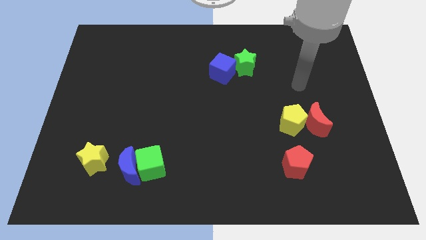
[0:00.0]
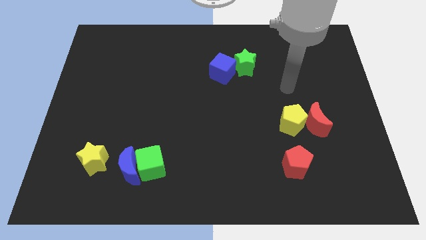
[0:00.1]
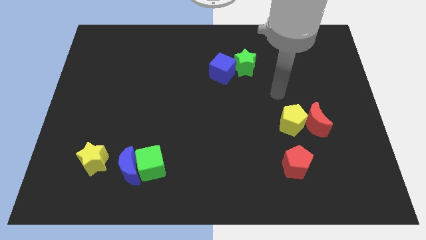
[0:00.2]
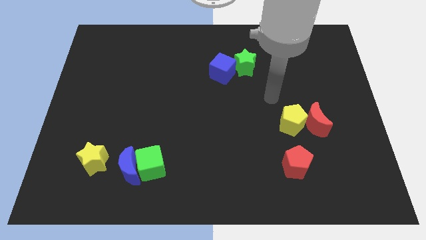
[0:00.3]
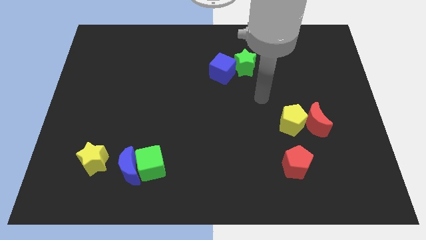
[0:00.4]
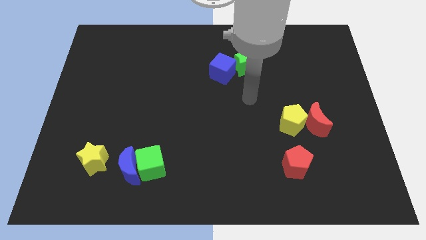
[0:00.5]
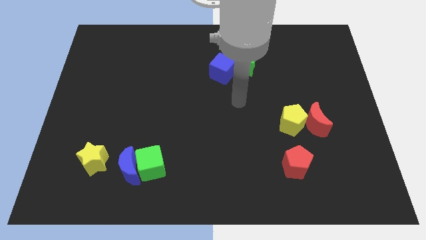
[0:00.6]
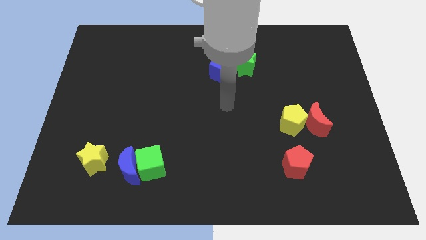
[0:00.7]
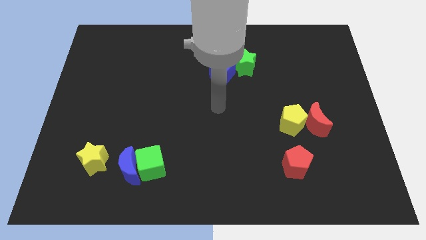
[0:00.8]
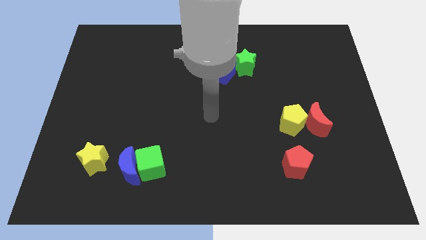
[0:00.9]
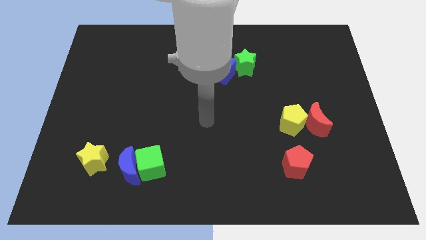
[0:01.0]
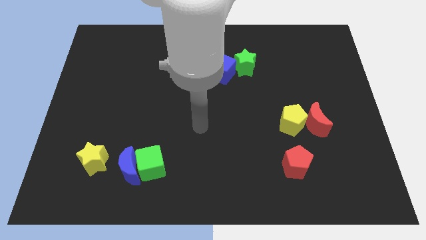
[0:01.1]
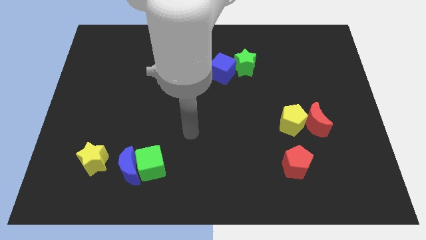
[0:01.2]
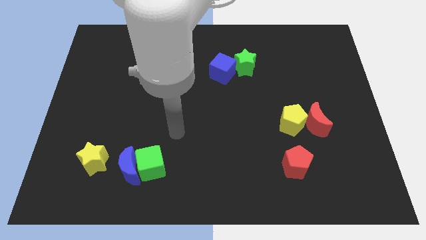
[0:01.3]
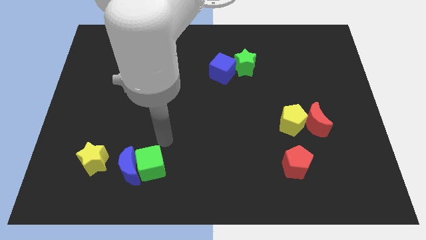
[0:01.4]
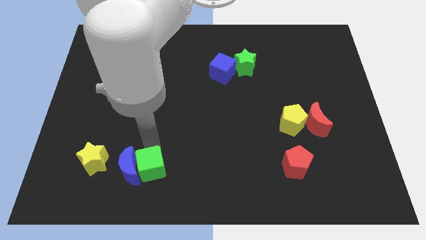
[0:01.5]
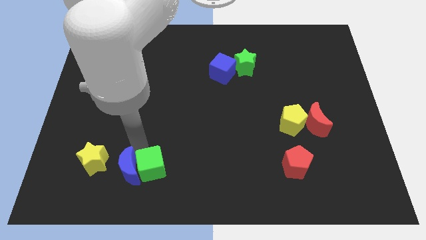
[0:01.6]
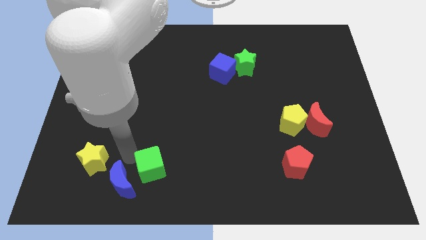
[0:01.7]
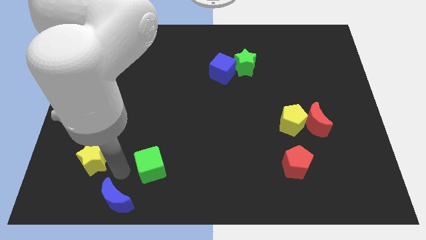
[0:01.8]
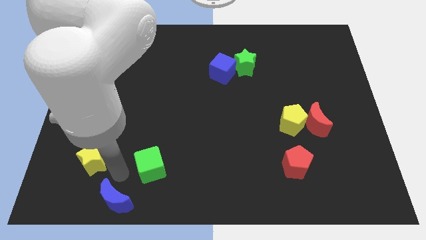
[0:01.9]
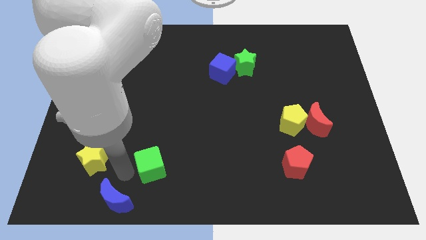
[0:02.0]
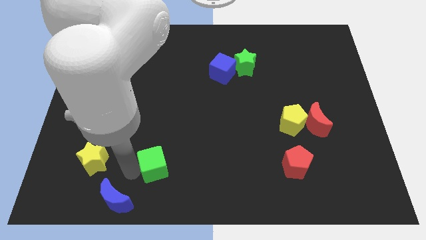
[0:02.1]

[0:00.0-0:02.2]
pull the green cube apart from the blue moon

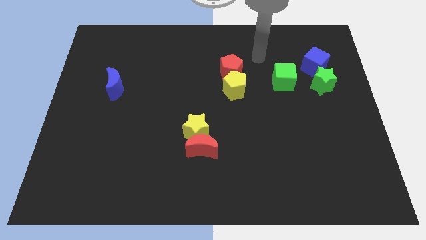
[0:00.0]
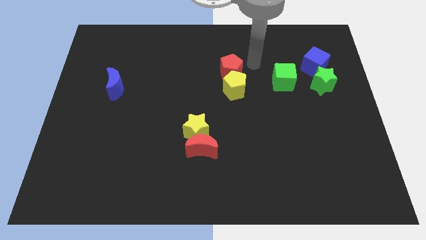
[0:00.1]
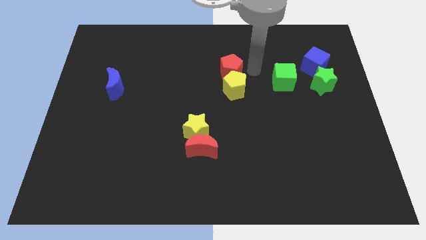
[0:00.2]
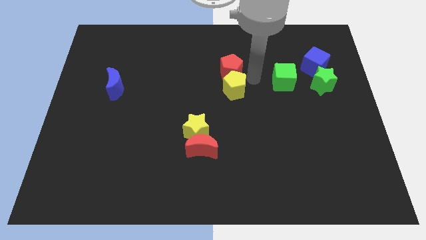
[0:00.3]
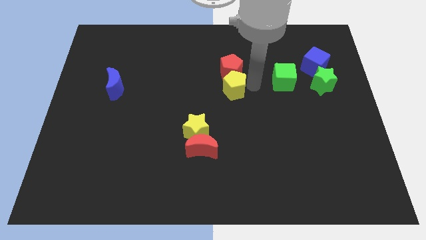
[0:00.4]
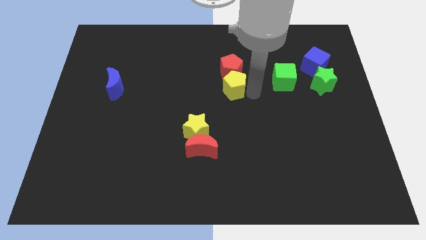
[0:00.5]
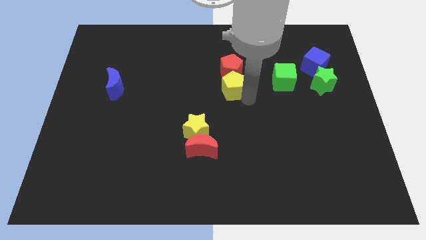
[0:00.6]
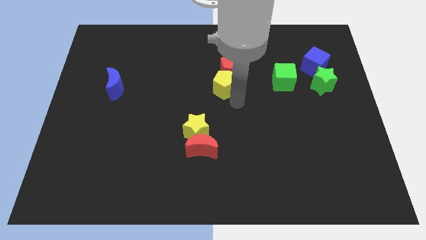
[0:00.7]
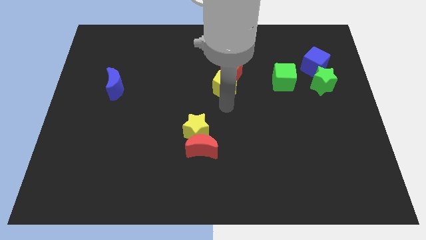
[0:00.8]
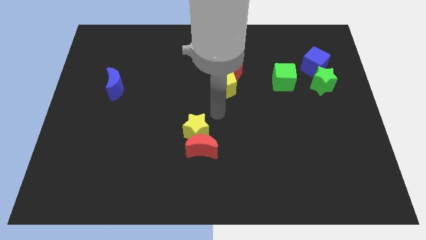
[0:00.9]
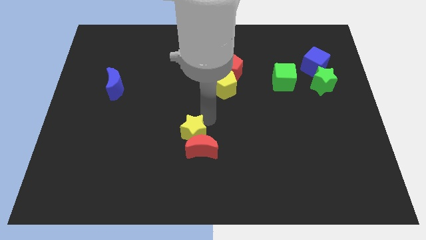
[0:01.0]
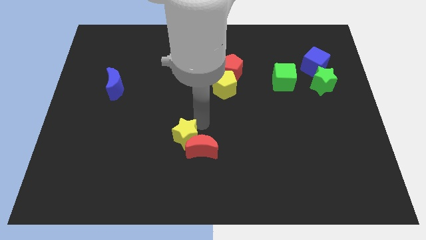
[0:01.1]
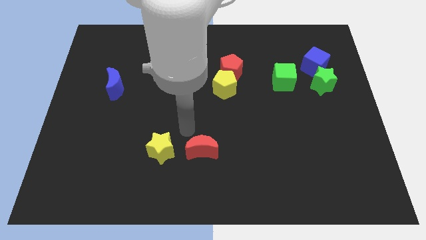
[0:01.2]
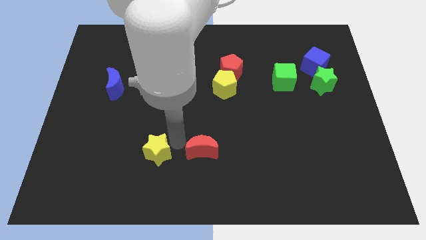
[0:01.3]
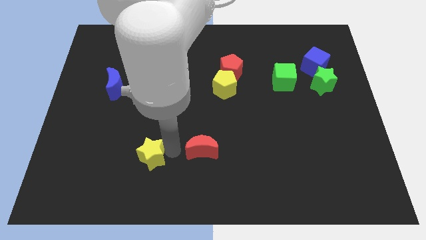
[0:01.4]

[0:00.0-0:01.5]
move the red moon away from the yellow star

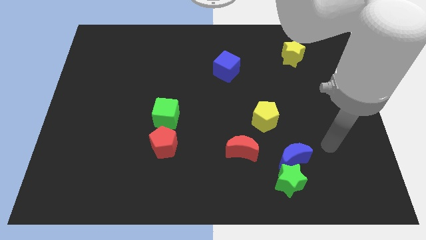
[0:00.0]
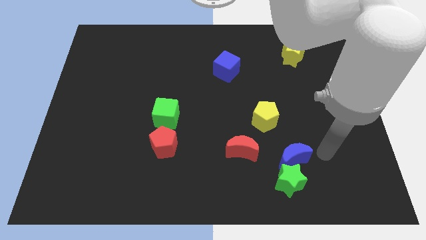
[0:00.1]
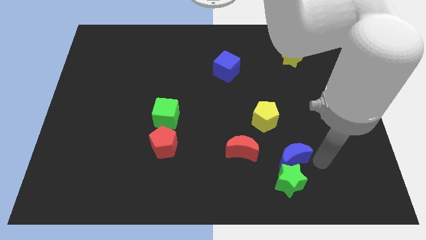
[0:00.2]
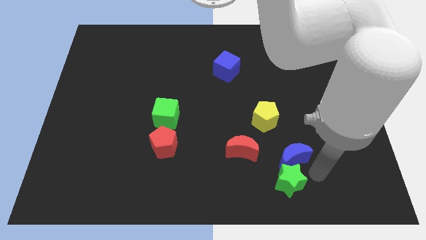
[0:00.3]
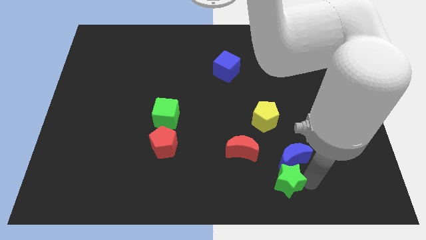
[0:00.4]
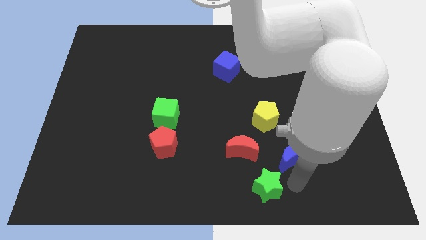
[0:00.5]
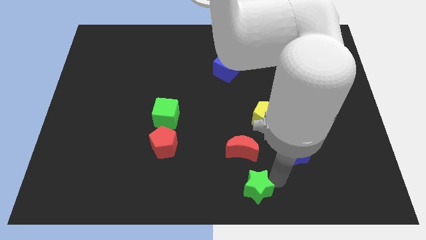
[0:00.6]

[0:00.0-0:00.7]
separate the blue moon from the green star

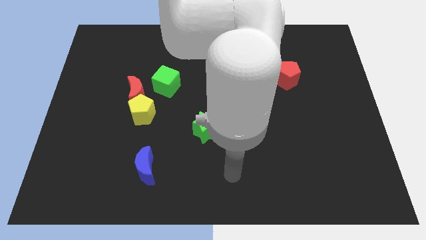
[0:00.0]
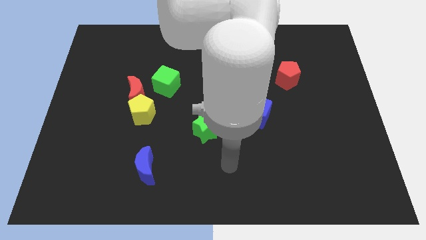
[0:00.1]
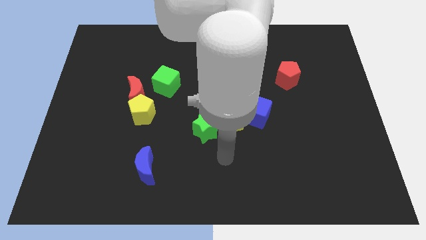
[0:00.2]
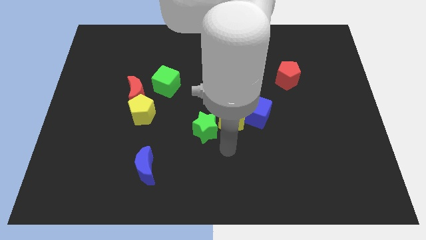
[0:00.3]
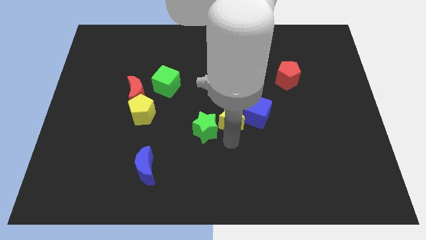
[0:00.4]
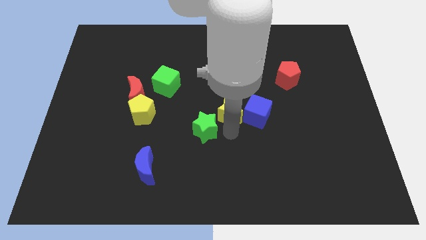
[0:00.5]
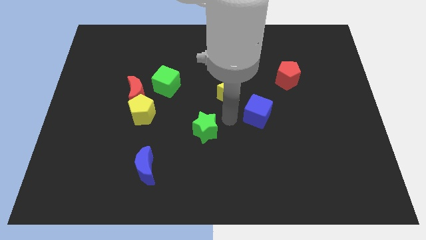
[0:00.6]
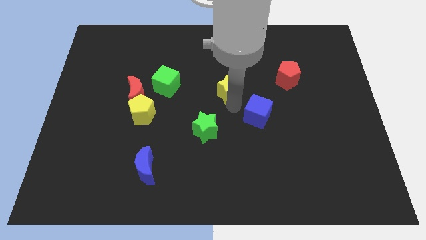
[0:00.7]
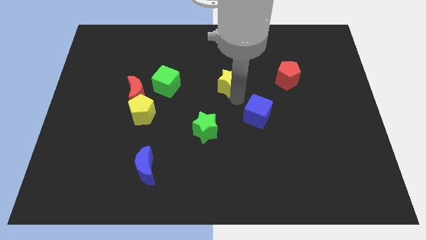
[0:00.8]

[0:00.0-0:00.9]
pull the blue cube apart from the yellow star

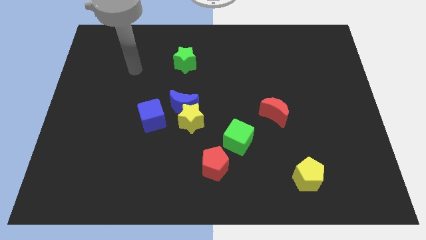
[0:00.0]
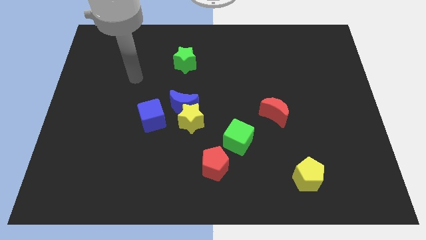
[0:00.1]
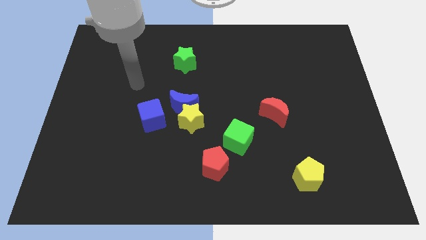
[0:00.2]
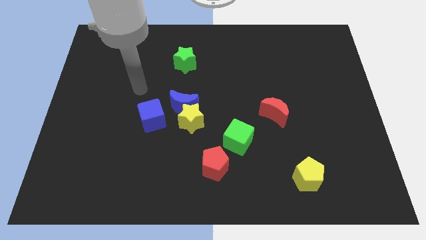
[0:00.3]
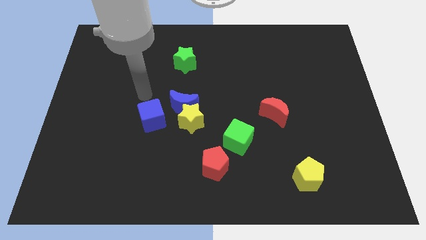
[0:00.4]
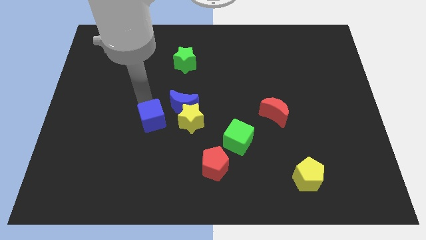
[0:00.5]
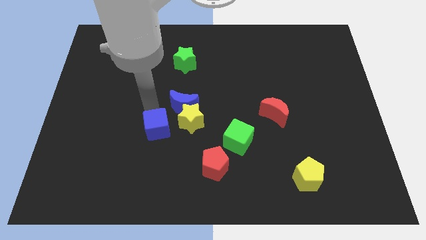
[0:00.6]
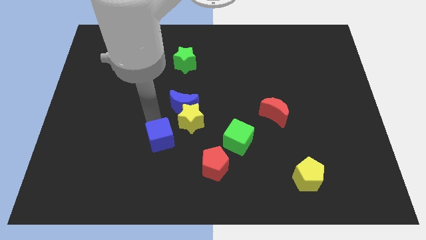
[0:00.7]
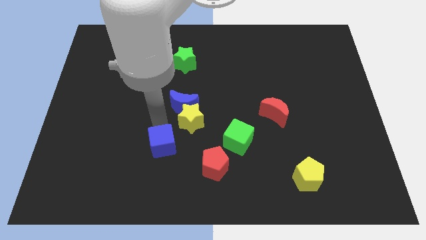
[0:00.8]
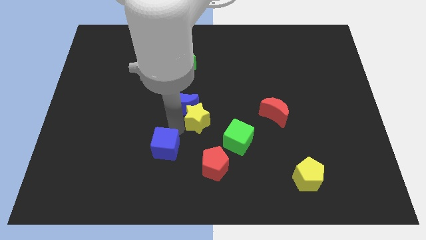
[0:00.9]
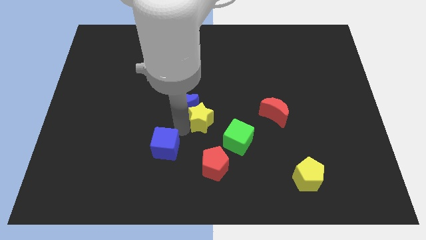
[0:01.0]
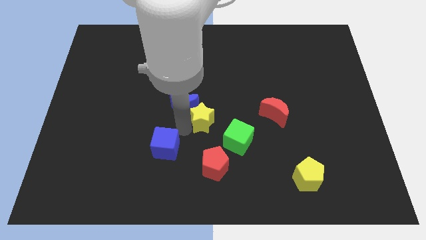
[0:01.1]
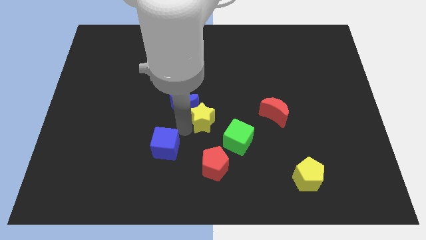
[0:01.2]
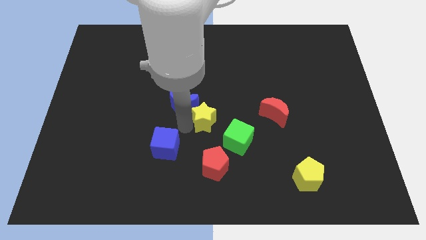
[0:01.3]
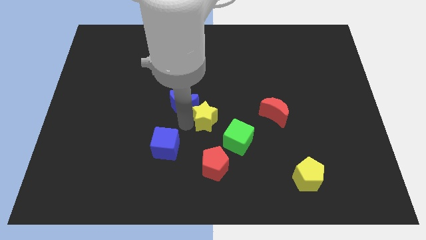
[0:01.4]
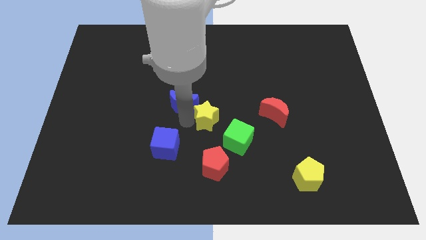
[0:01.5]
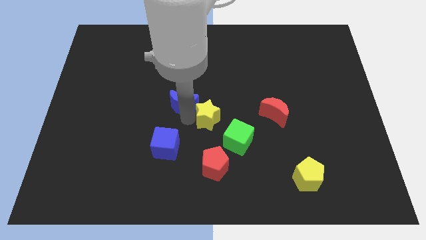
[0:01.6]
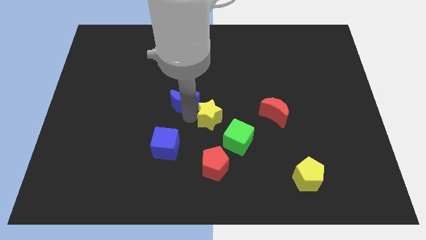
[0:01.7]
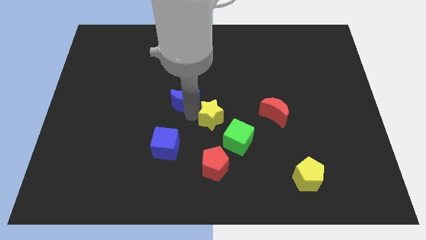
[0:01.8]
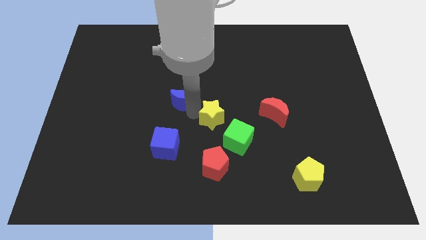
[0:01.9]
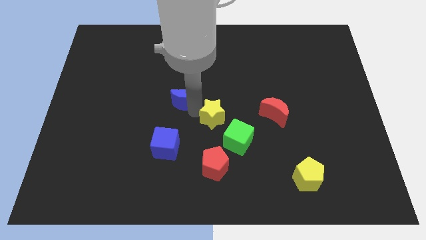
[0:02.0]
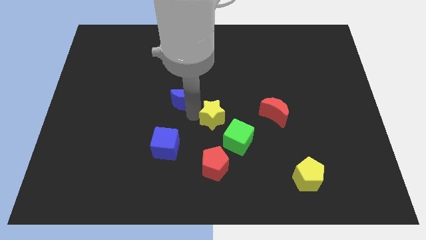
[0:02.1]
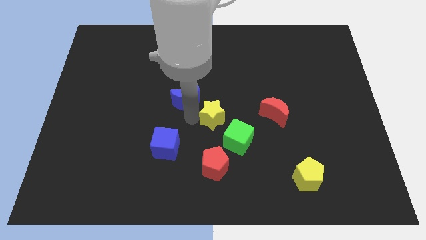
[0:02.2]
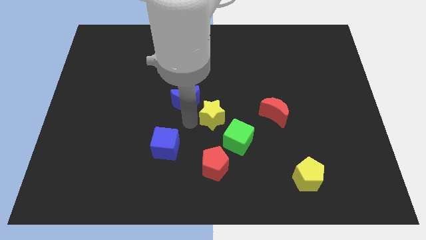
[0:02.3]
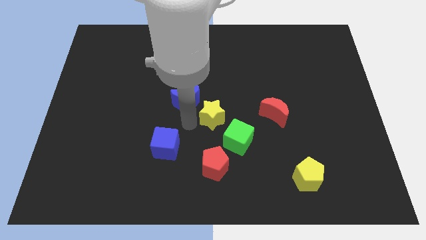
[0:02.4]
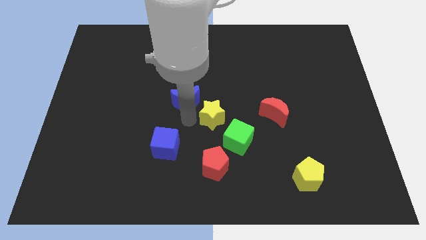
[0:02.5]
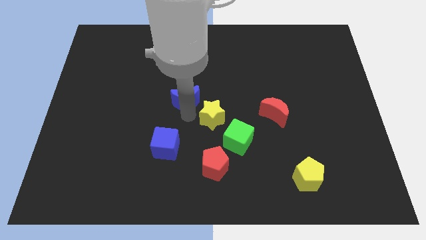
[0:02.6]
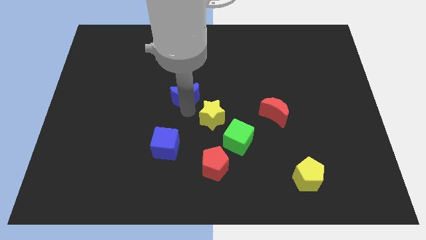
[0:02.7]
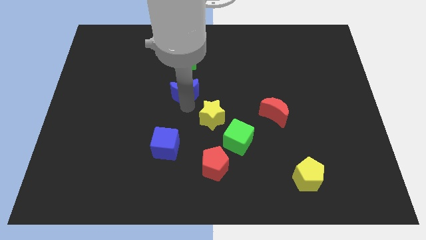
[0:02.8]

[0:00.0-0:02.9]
pull the blue moon apart from the yellow star and blue cube

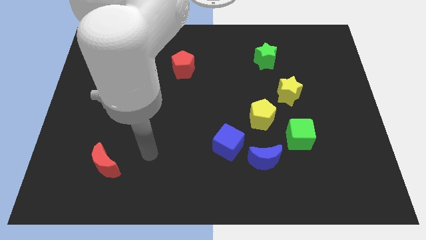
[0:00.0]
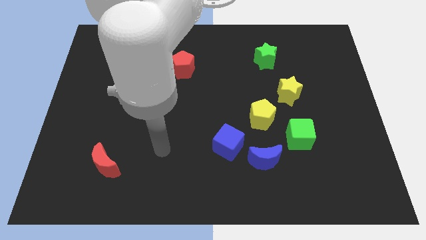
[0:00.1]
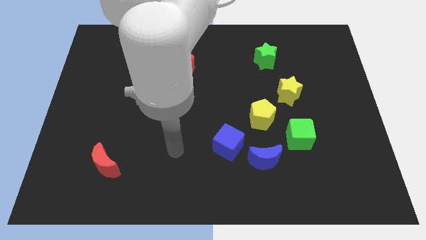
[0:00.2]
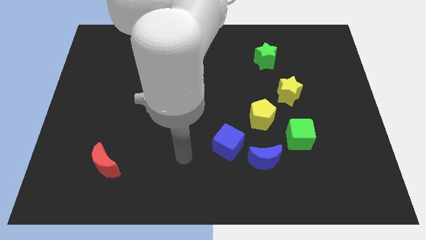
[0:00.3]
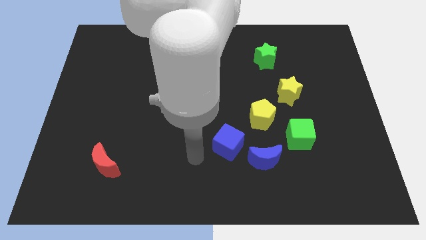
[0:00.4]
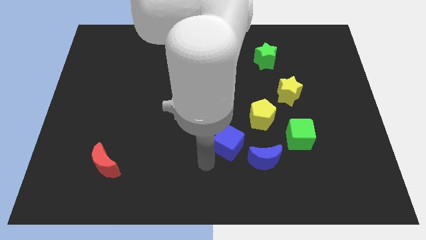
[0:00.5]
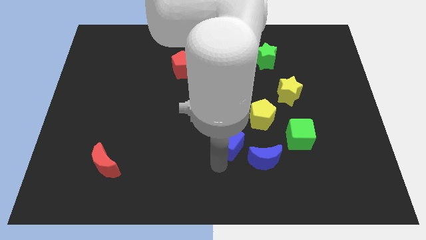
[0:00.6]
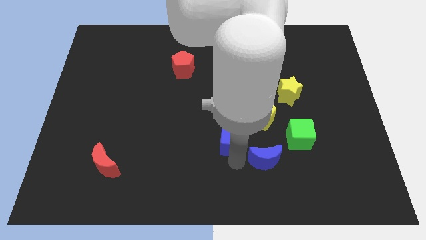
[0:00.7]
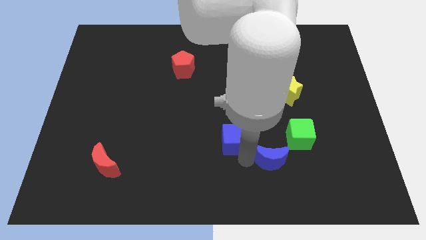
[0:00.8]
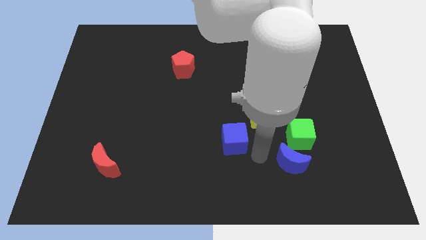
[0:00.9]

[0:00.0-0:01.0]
pull the blue cube apart from the blue moon

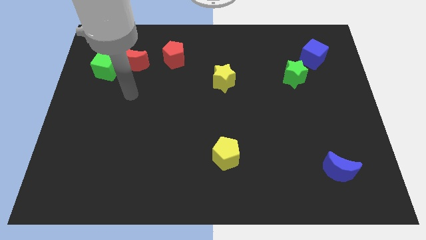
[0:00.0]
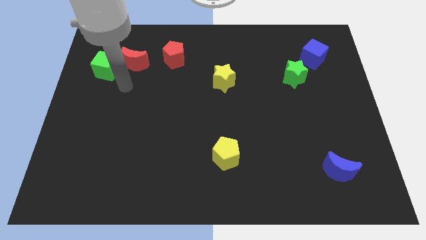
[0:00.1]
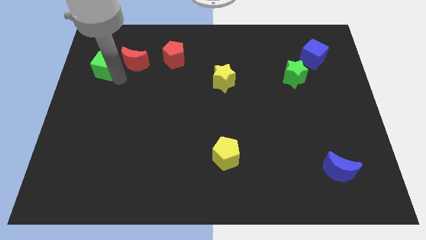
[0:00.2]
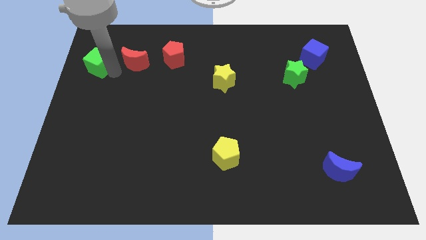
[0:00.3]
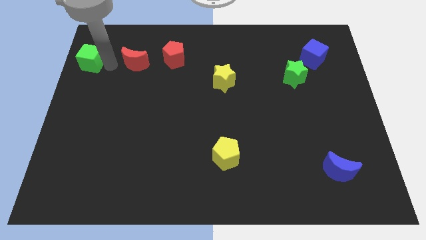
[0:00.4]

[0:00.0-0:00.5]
move the red moon away from the green cube
